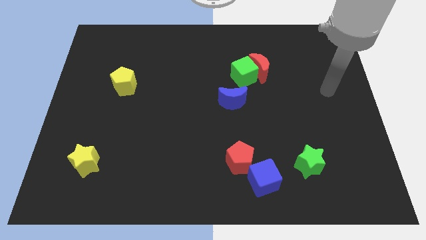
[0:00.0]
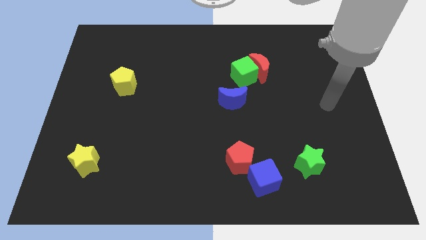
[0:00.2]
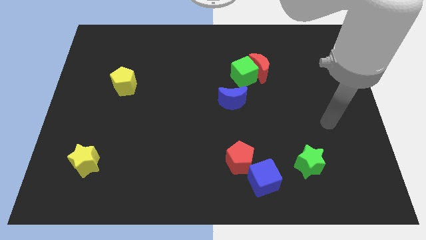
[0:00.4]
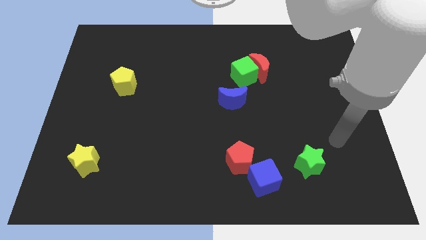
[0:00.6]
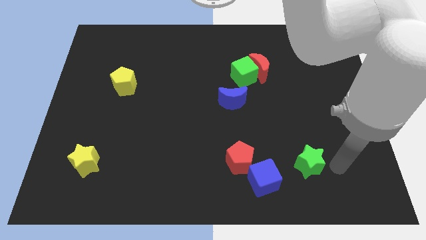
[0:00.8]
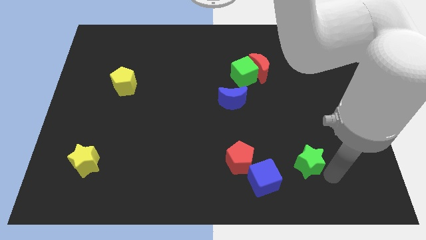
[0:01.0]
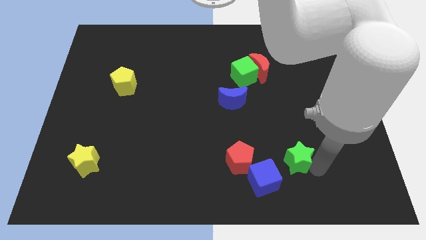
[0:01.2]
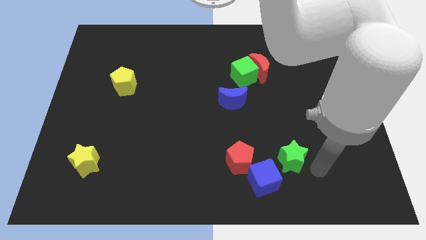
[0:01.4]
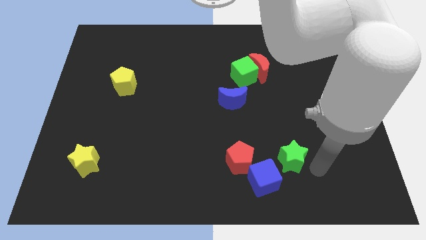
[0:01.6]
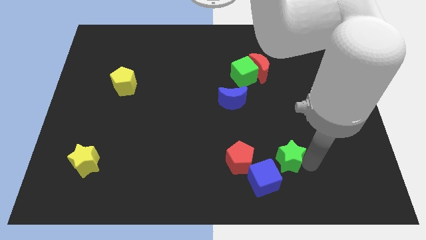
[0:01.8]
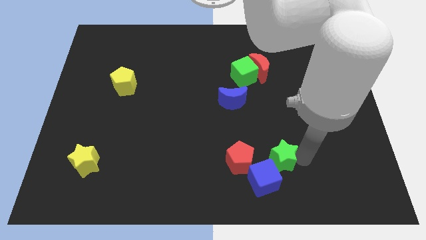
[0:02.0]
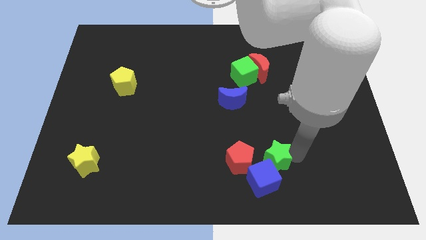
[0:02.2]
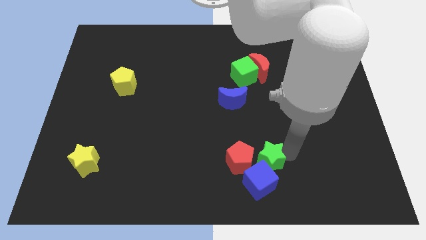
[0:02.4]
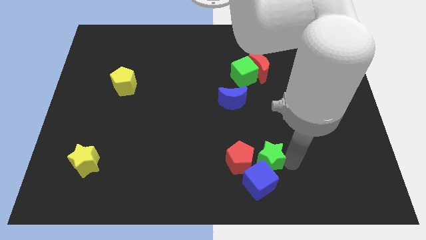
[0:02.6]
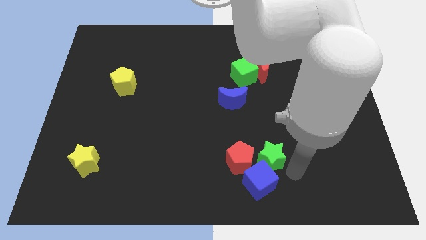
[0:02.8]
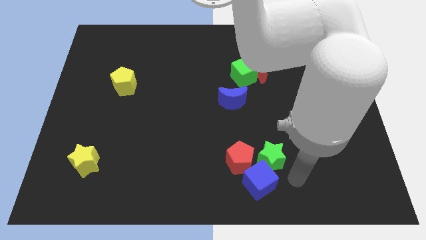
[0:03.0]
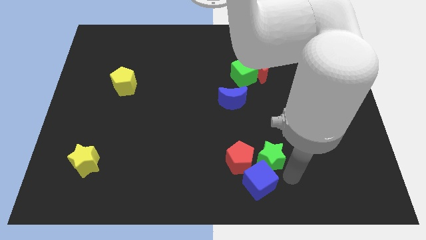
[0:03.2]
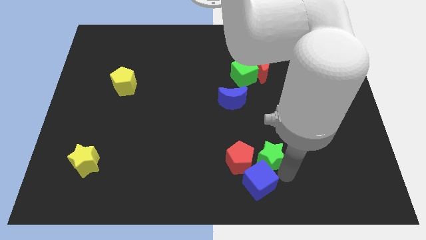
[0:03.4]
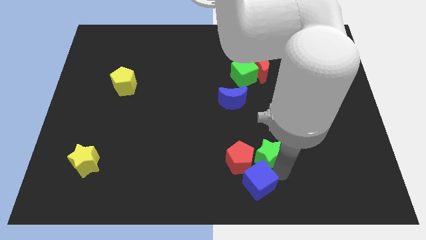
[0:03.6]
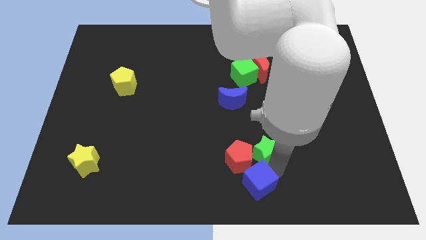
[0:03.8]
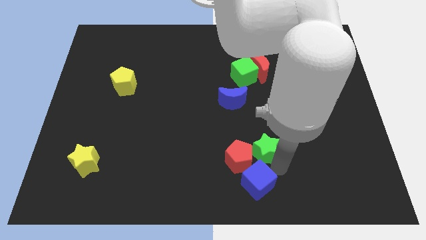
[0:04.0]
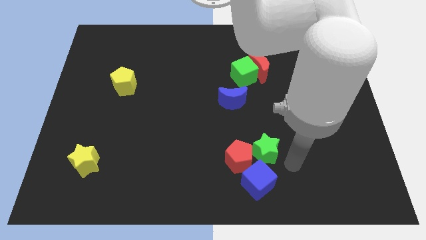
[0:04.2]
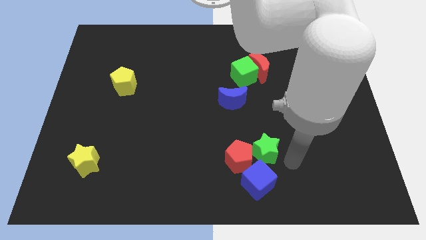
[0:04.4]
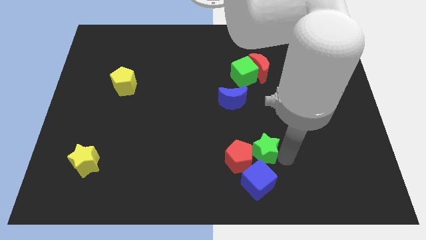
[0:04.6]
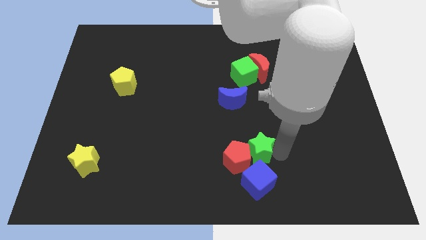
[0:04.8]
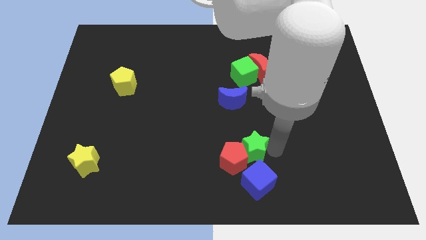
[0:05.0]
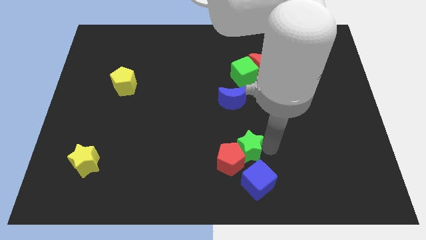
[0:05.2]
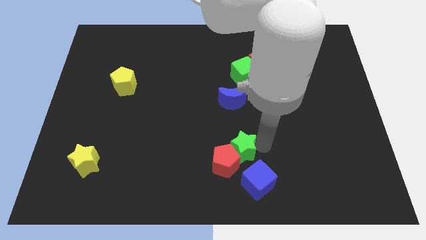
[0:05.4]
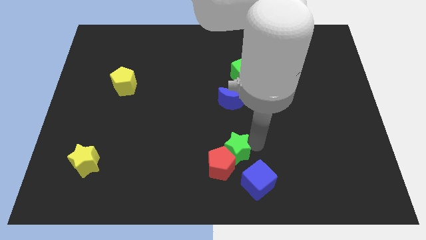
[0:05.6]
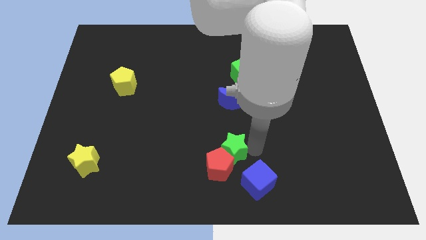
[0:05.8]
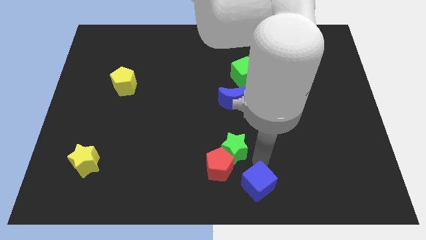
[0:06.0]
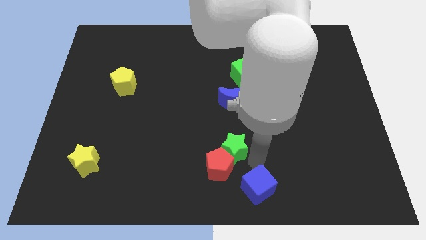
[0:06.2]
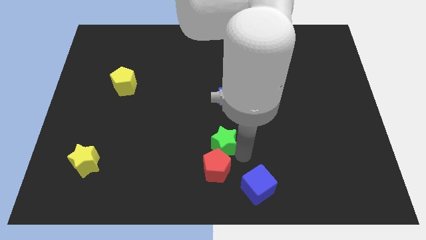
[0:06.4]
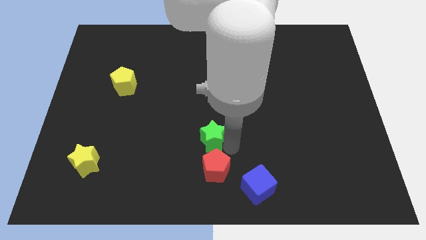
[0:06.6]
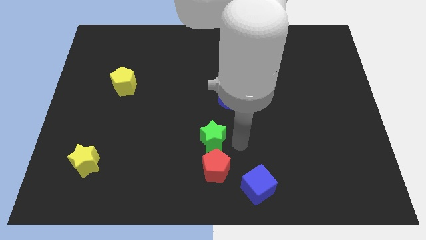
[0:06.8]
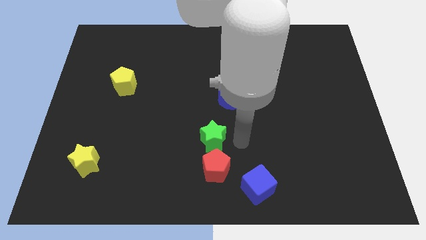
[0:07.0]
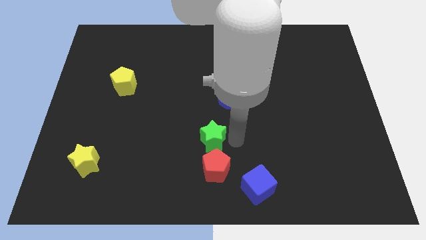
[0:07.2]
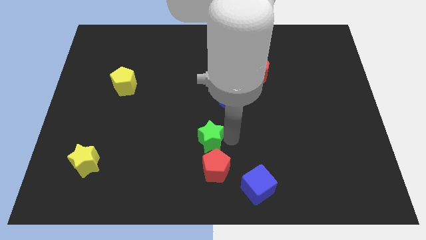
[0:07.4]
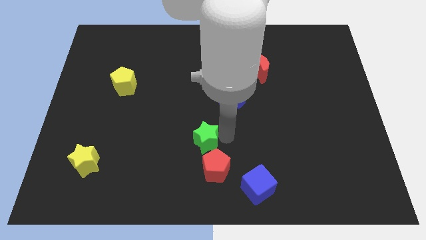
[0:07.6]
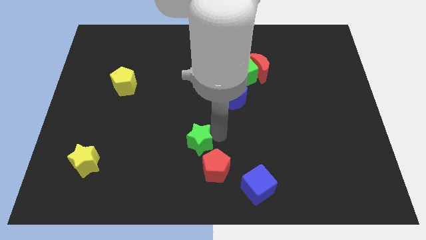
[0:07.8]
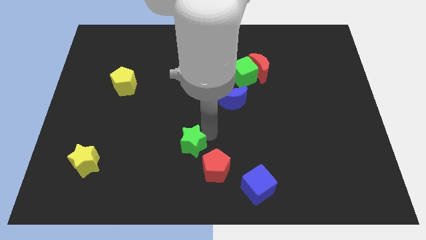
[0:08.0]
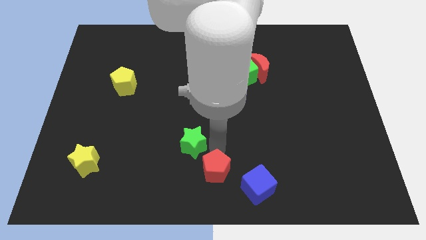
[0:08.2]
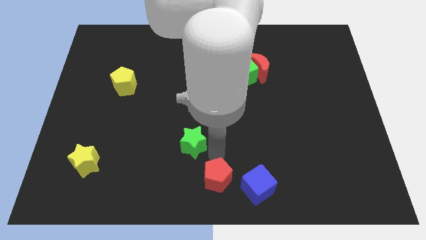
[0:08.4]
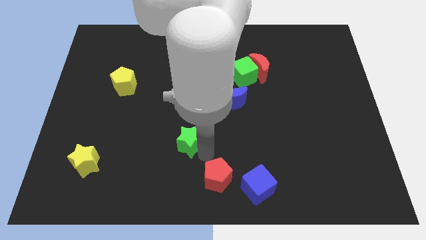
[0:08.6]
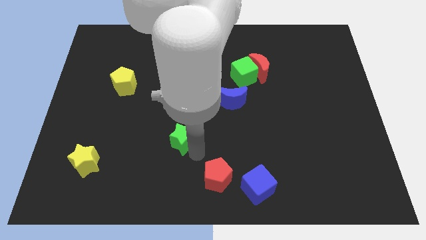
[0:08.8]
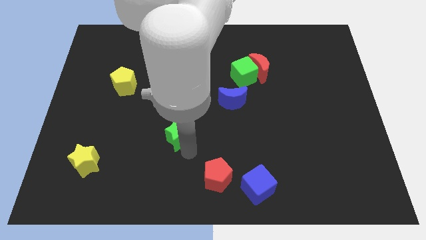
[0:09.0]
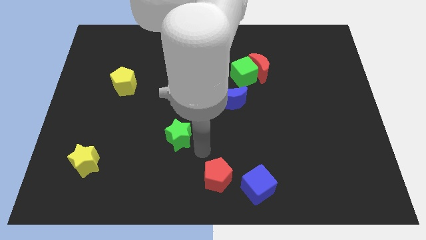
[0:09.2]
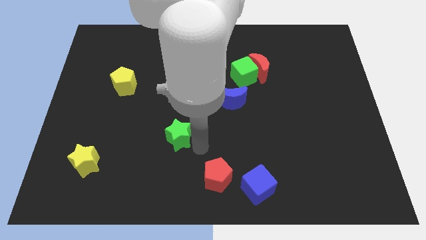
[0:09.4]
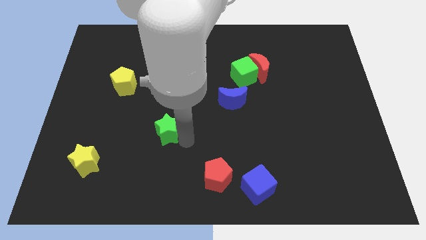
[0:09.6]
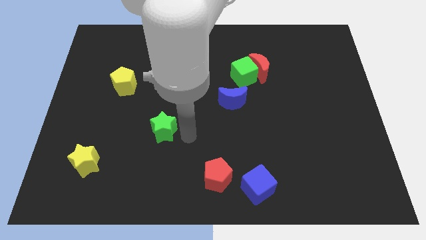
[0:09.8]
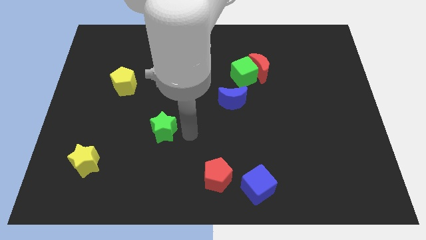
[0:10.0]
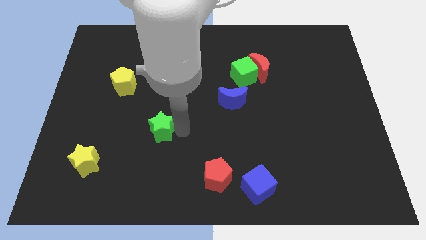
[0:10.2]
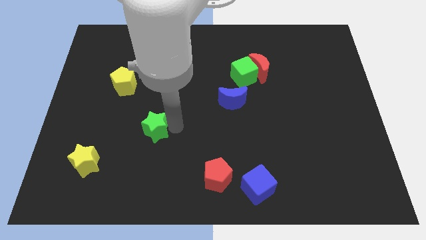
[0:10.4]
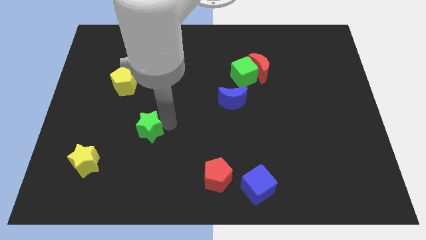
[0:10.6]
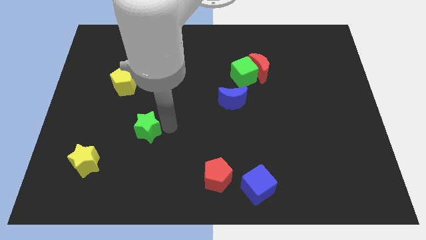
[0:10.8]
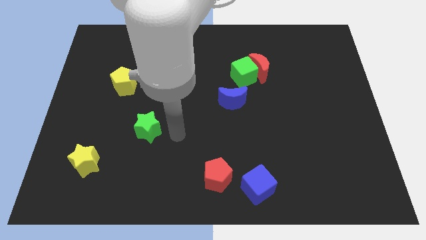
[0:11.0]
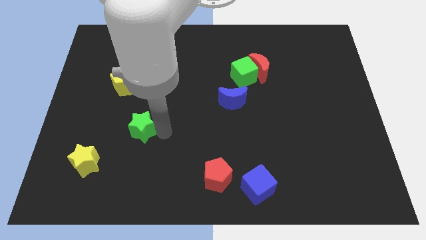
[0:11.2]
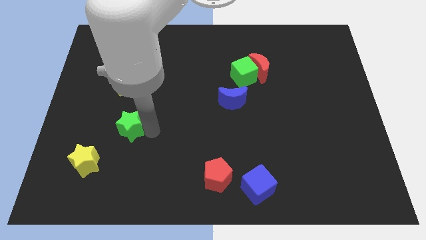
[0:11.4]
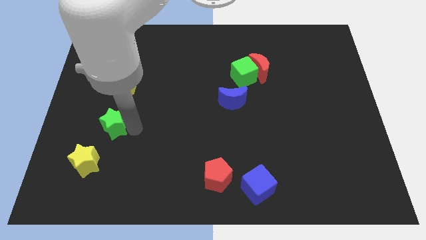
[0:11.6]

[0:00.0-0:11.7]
put the green star to the top side of the yellow star

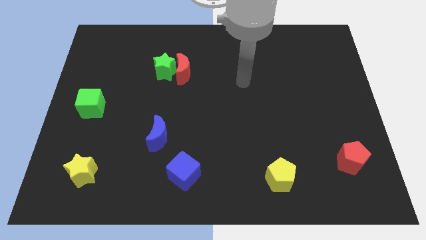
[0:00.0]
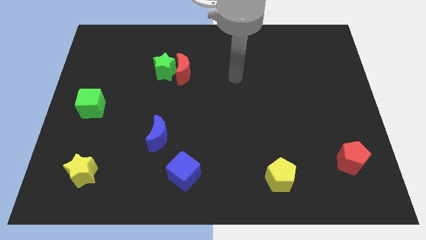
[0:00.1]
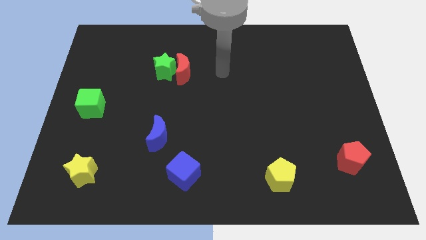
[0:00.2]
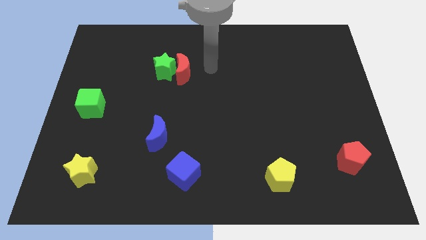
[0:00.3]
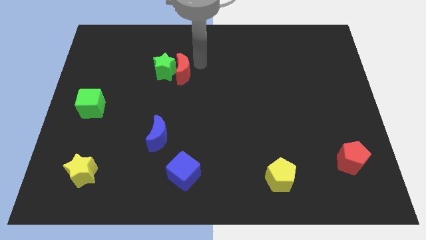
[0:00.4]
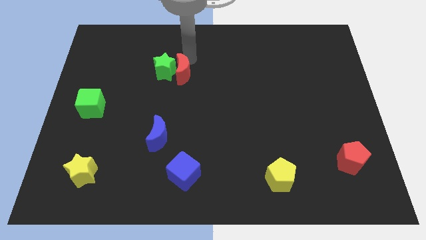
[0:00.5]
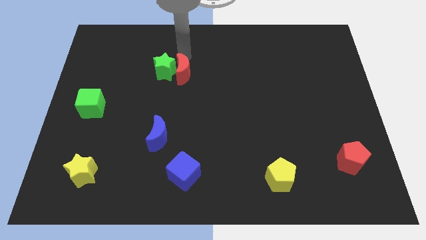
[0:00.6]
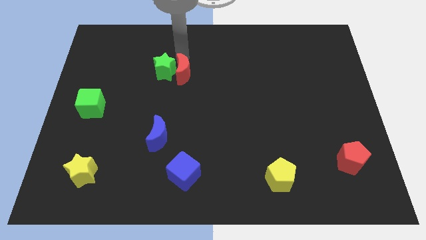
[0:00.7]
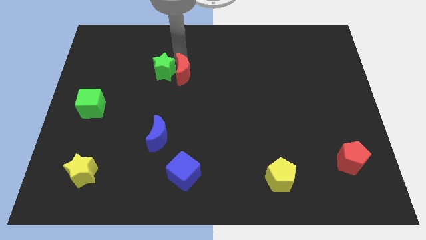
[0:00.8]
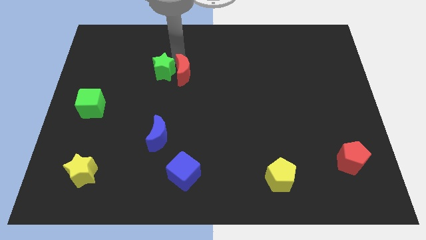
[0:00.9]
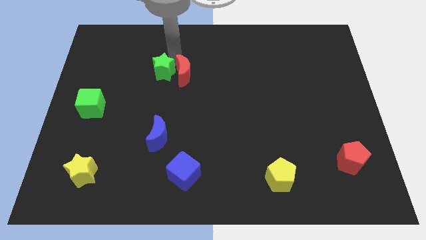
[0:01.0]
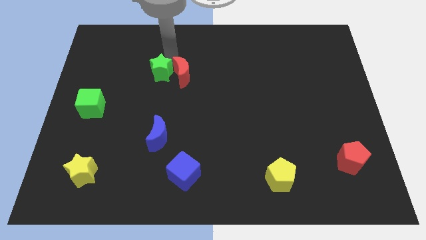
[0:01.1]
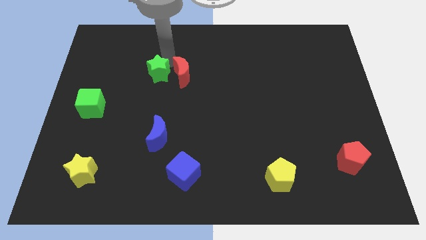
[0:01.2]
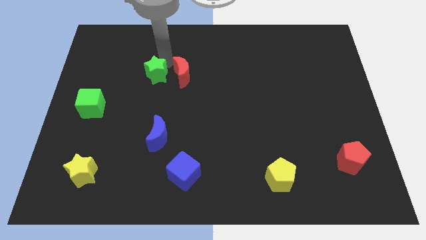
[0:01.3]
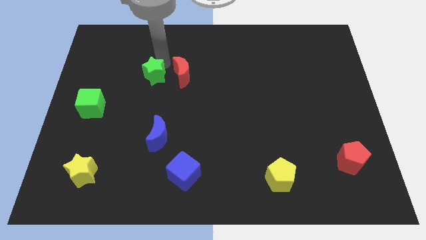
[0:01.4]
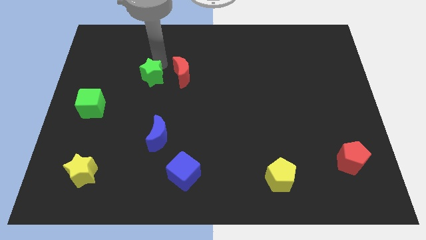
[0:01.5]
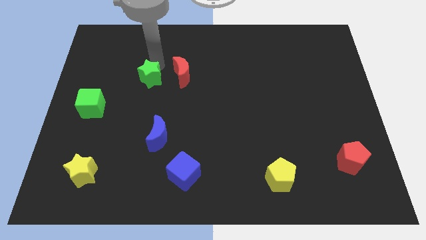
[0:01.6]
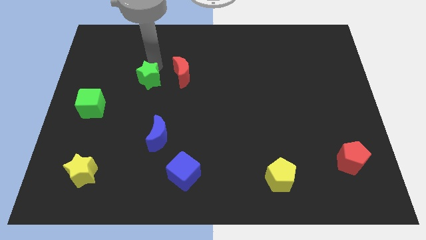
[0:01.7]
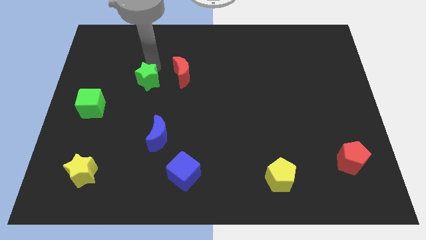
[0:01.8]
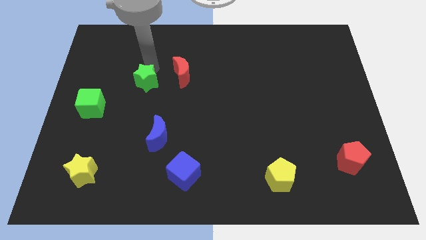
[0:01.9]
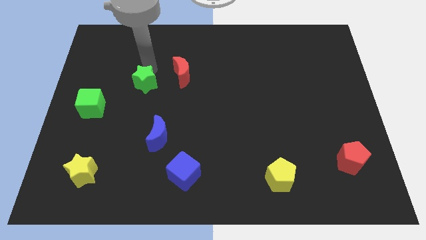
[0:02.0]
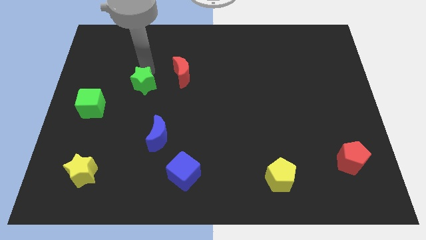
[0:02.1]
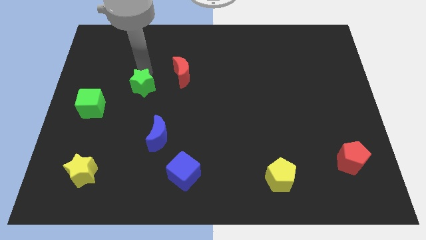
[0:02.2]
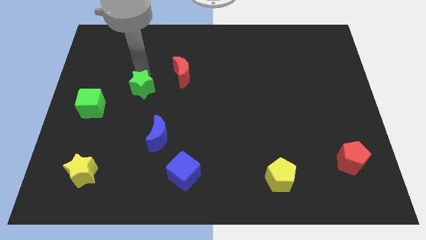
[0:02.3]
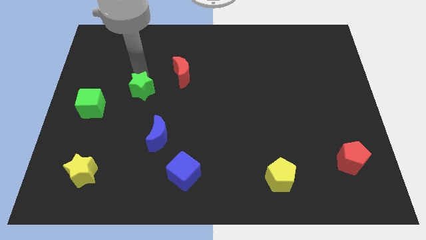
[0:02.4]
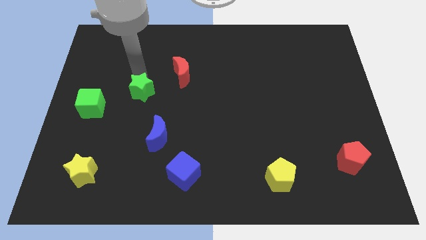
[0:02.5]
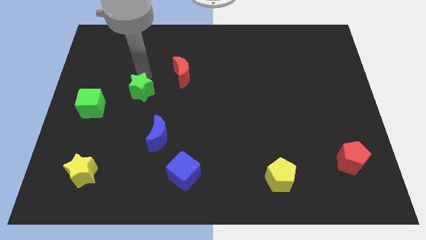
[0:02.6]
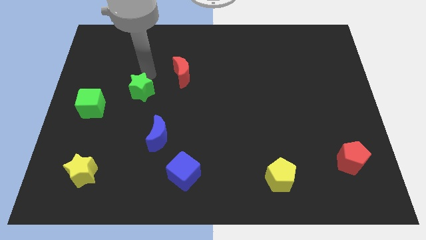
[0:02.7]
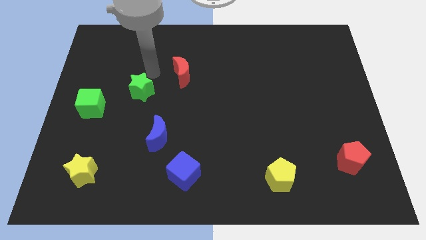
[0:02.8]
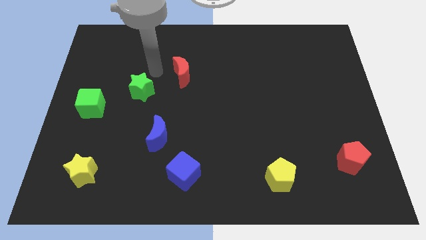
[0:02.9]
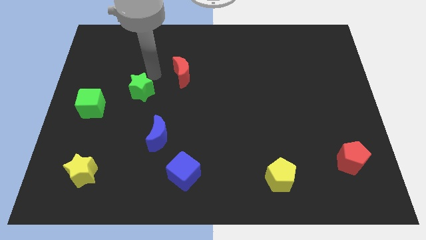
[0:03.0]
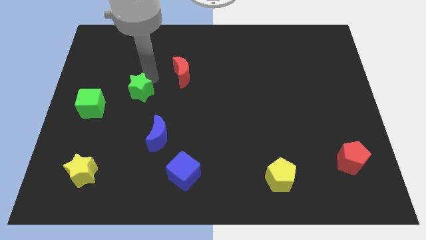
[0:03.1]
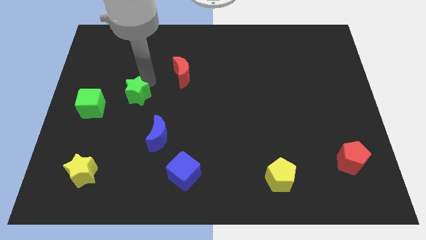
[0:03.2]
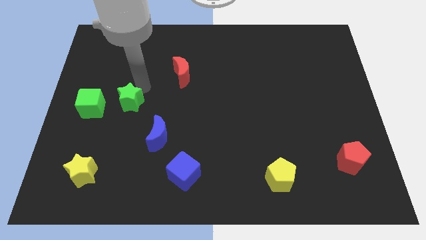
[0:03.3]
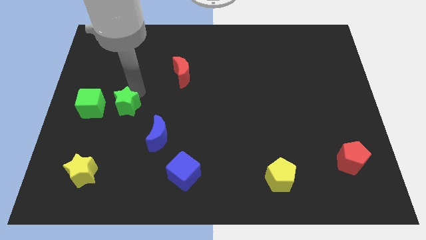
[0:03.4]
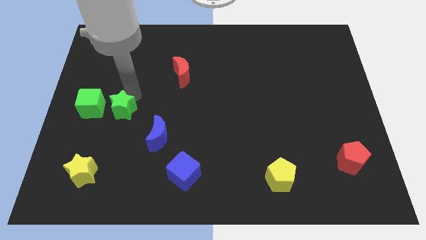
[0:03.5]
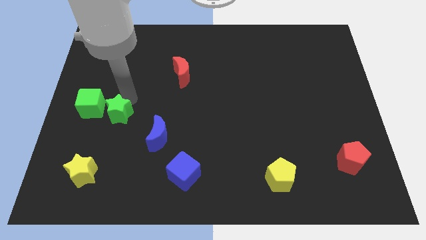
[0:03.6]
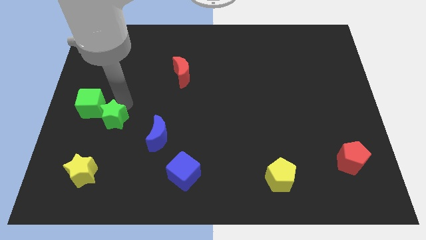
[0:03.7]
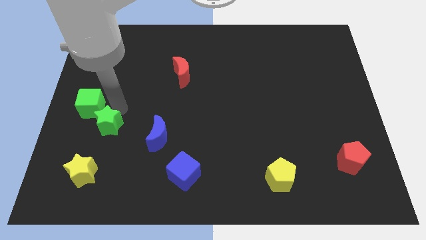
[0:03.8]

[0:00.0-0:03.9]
push the green star just left of the blue moon
